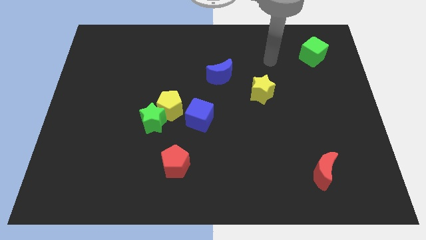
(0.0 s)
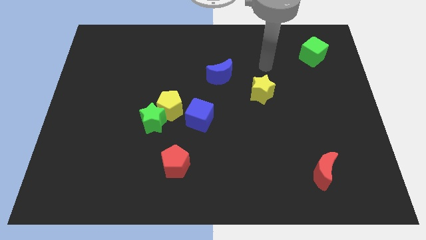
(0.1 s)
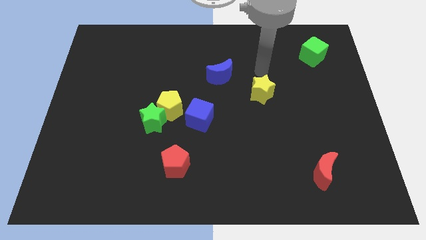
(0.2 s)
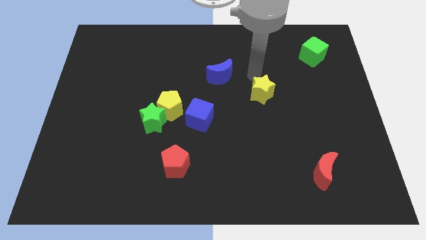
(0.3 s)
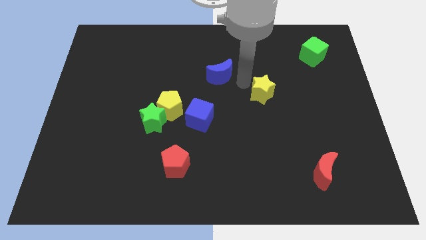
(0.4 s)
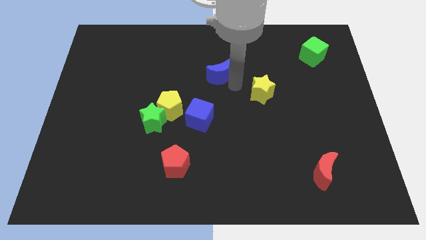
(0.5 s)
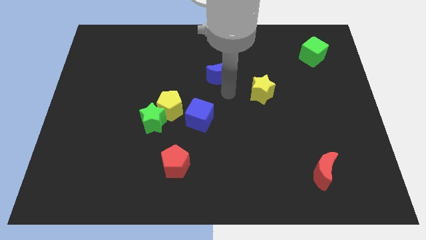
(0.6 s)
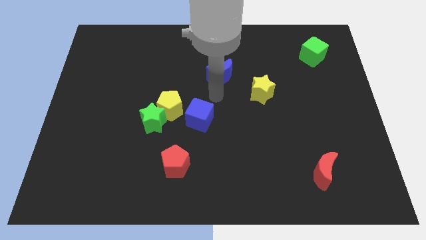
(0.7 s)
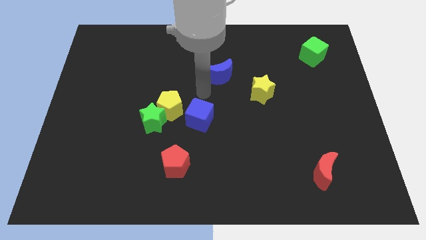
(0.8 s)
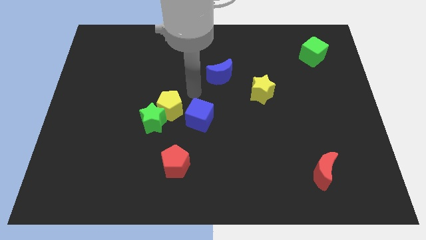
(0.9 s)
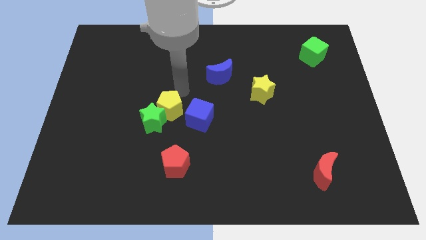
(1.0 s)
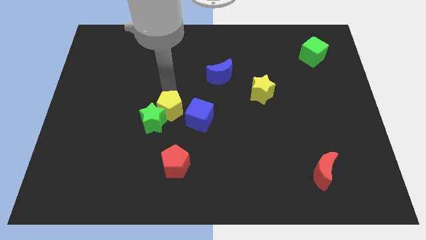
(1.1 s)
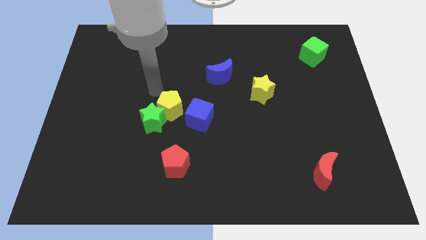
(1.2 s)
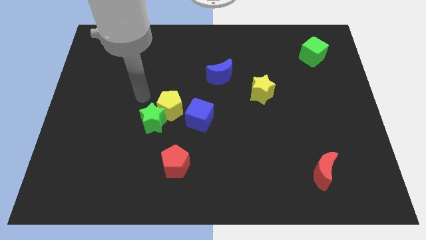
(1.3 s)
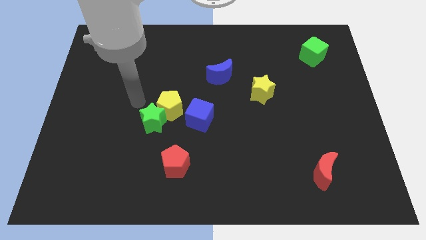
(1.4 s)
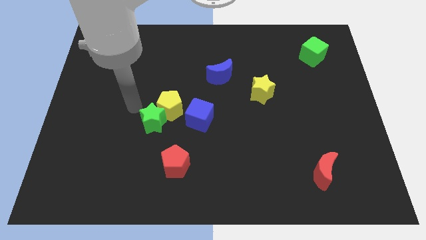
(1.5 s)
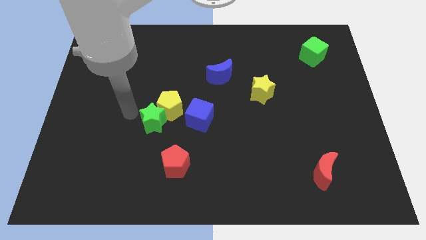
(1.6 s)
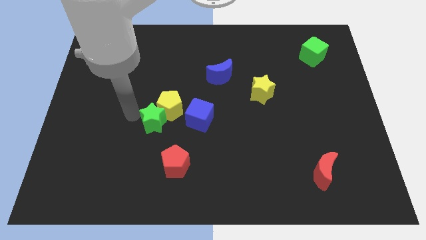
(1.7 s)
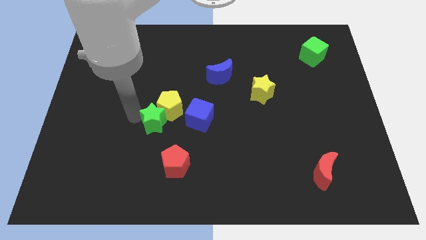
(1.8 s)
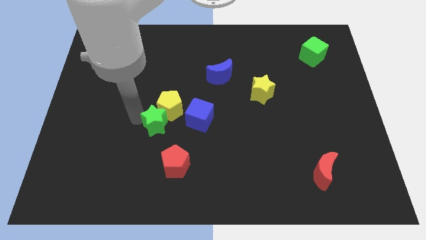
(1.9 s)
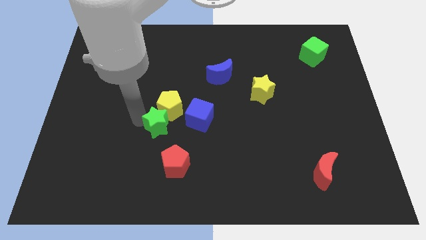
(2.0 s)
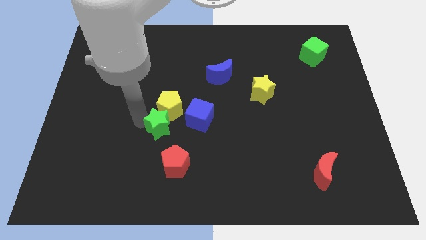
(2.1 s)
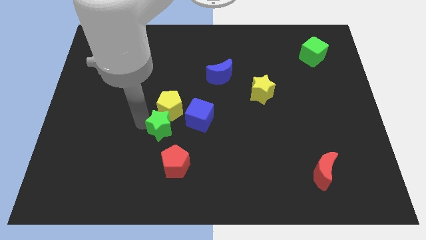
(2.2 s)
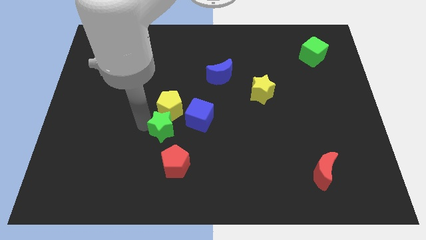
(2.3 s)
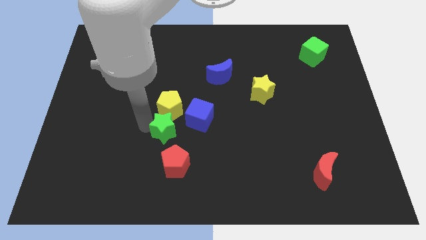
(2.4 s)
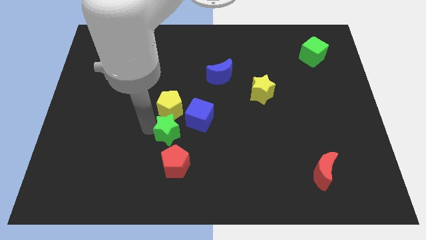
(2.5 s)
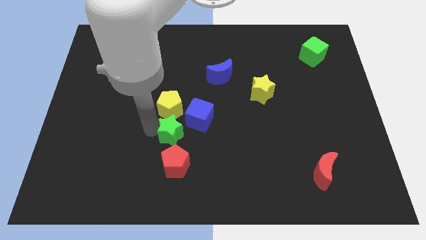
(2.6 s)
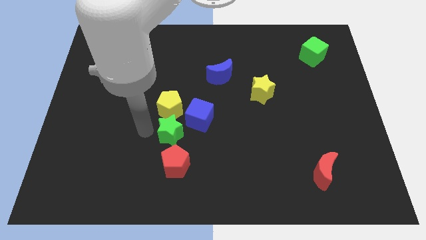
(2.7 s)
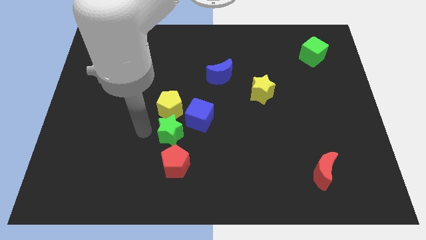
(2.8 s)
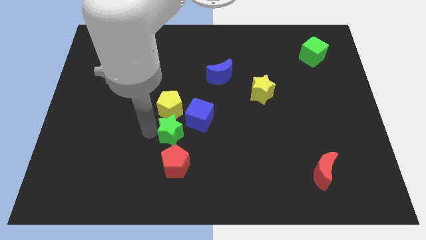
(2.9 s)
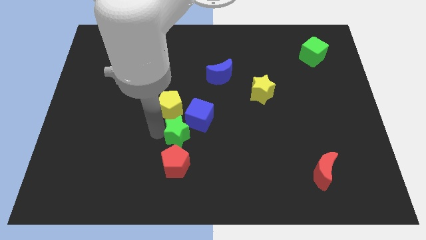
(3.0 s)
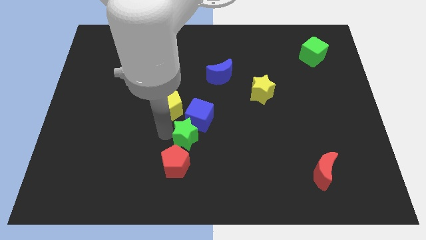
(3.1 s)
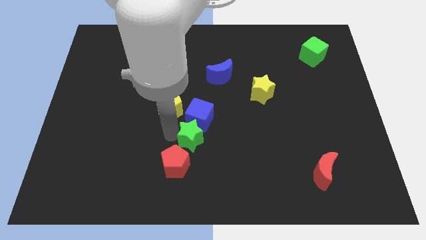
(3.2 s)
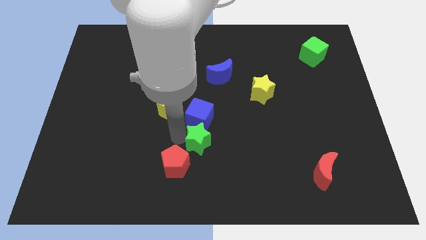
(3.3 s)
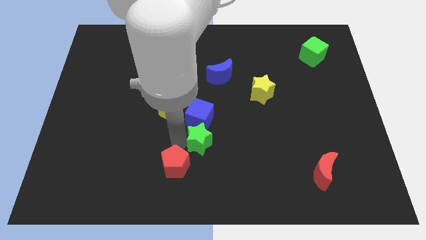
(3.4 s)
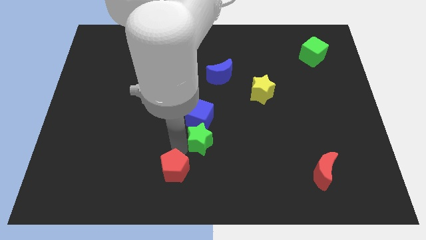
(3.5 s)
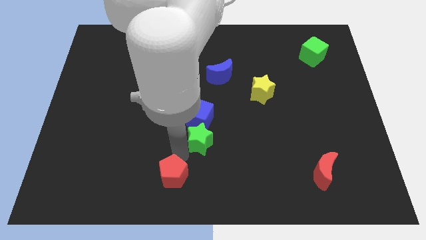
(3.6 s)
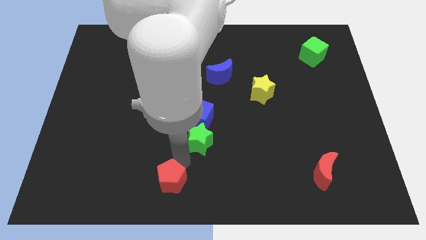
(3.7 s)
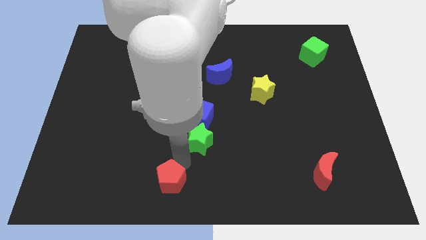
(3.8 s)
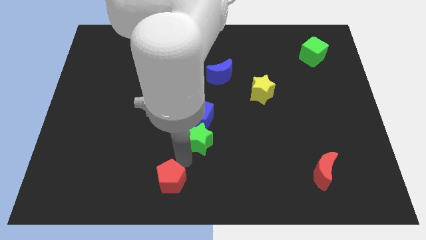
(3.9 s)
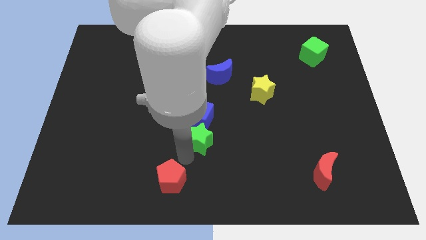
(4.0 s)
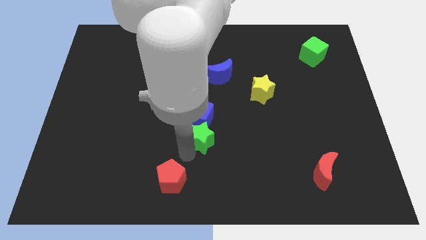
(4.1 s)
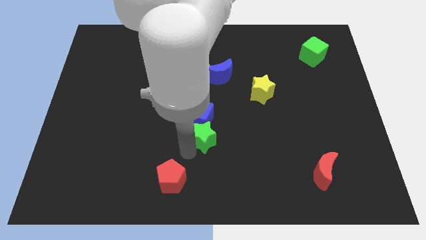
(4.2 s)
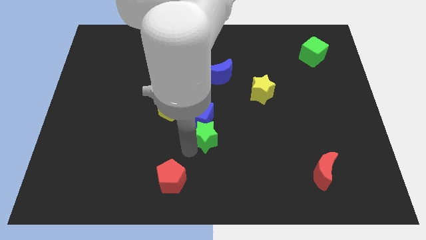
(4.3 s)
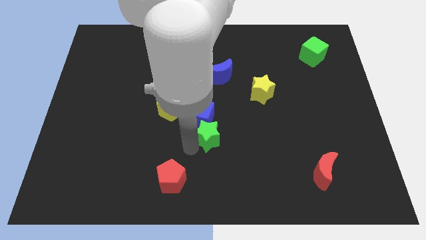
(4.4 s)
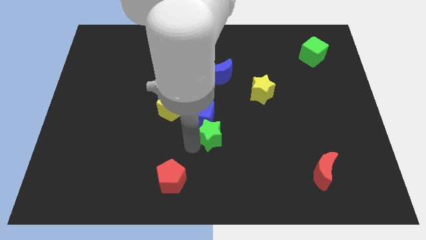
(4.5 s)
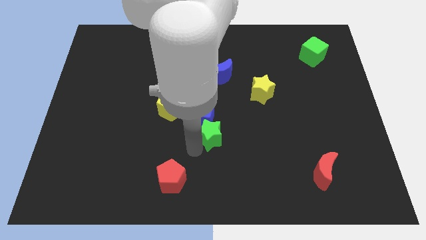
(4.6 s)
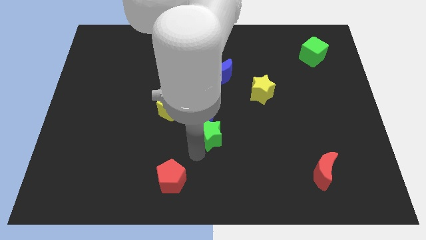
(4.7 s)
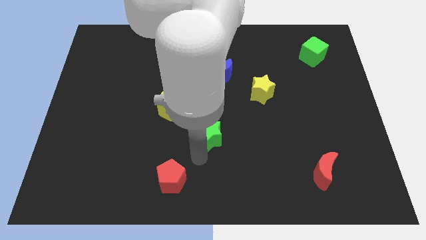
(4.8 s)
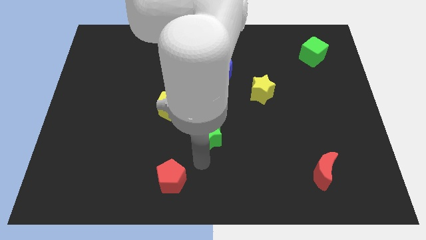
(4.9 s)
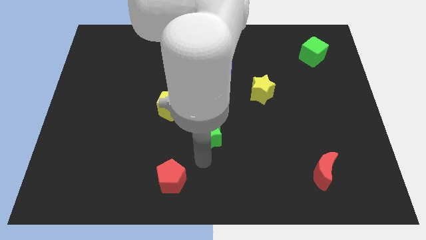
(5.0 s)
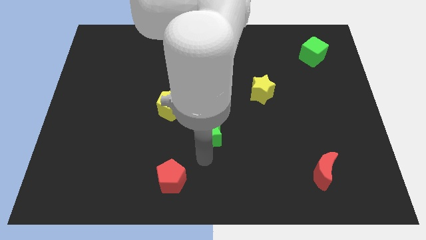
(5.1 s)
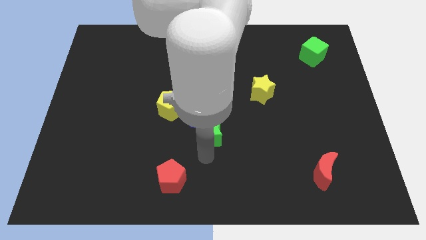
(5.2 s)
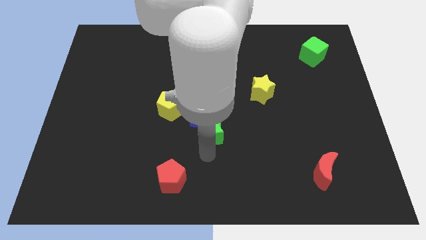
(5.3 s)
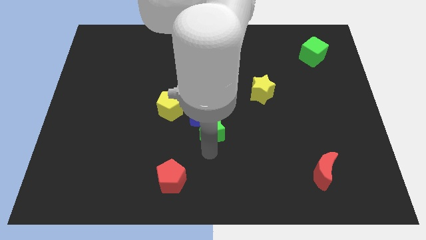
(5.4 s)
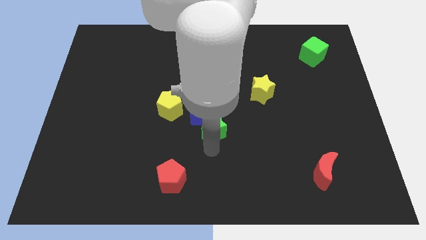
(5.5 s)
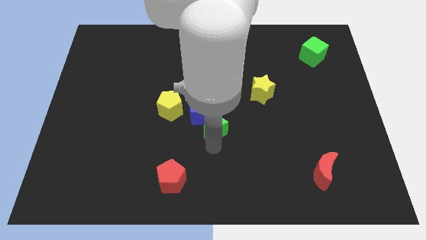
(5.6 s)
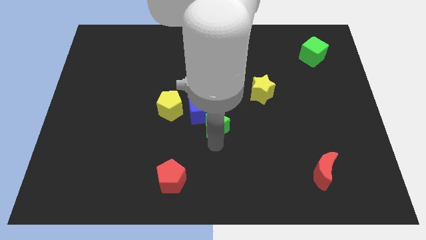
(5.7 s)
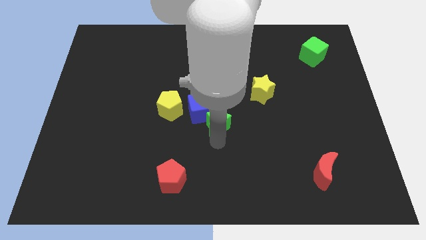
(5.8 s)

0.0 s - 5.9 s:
push the green star just right of the yellow pentagon
